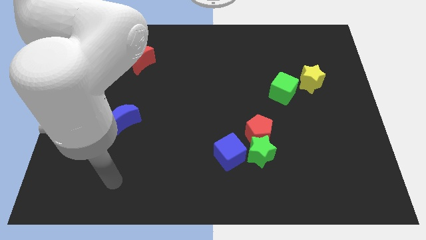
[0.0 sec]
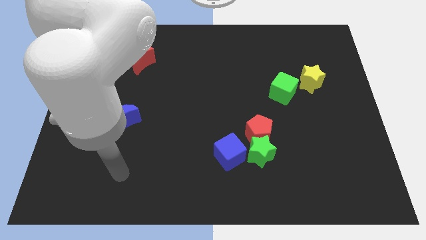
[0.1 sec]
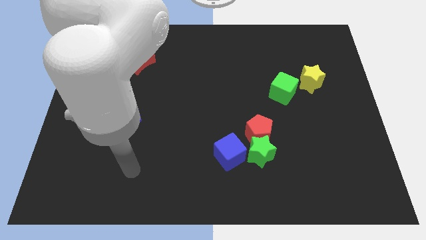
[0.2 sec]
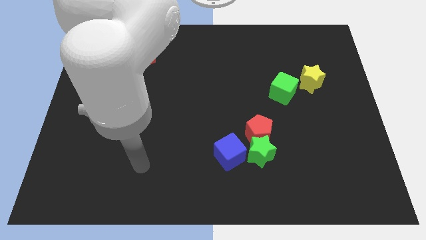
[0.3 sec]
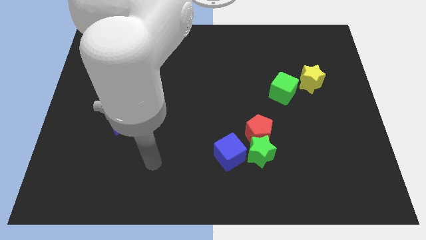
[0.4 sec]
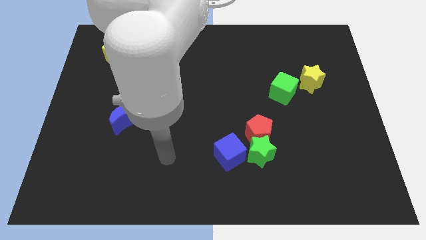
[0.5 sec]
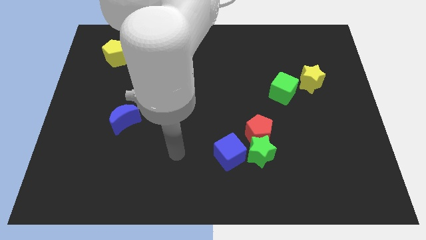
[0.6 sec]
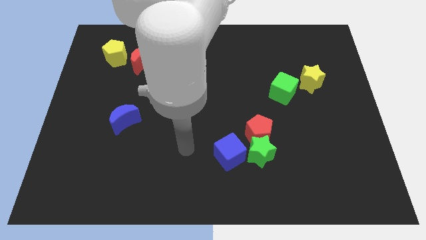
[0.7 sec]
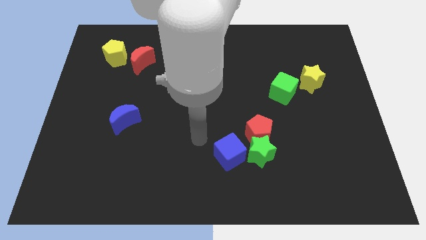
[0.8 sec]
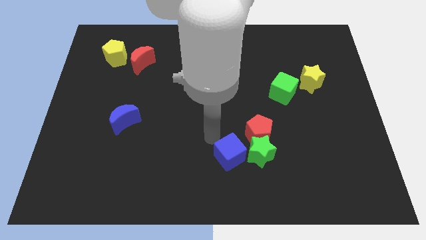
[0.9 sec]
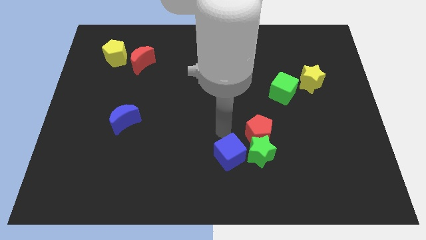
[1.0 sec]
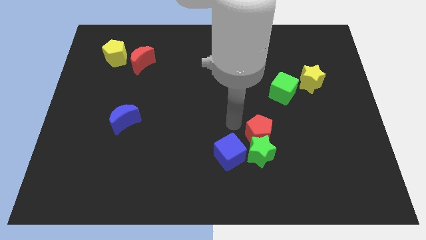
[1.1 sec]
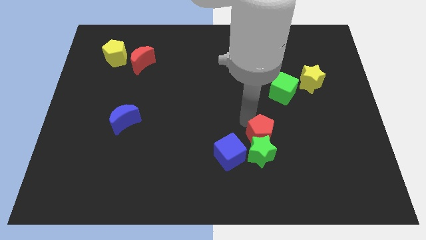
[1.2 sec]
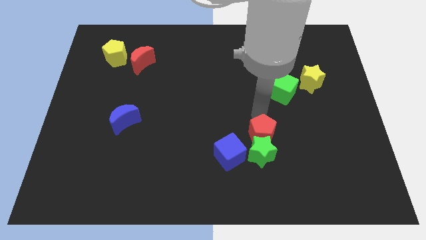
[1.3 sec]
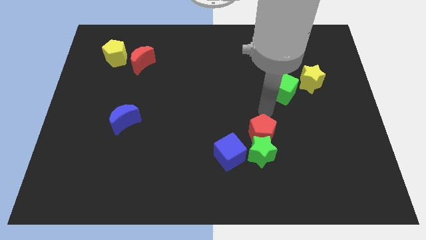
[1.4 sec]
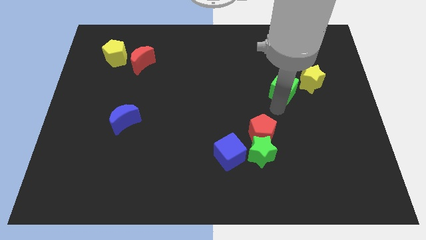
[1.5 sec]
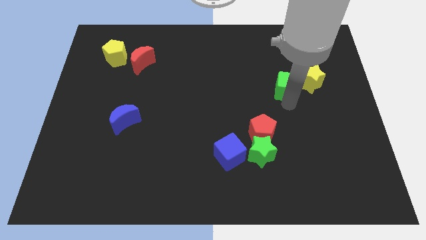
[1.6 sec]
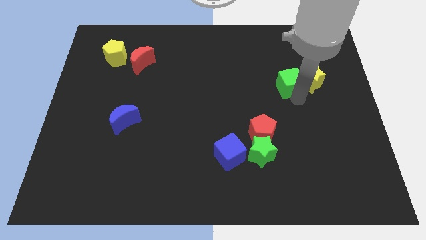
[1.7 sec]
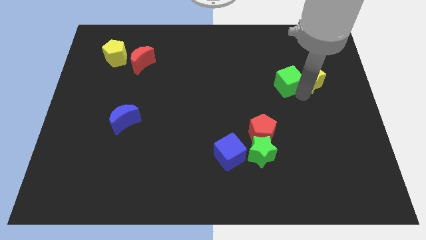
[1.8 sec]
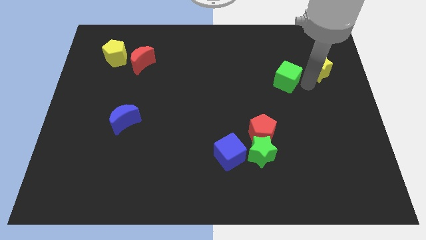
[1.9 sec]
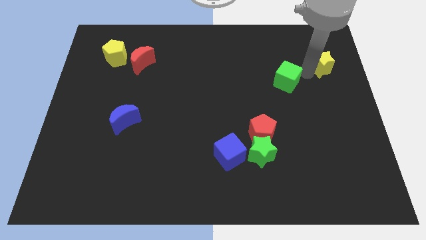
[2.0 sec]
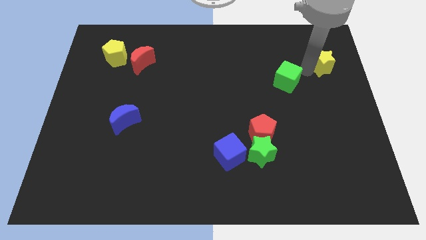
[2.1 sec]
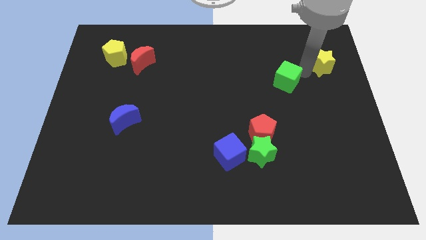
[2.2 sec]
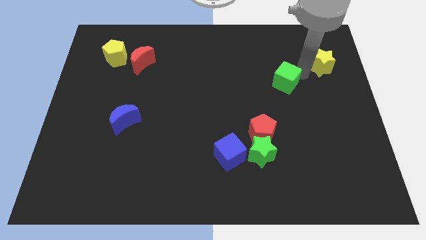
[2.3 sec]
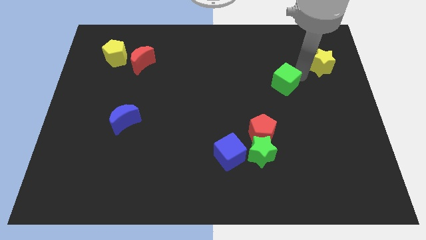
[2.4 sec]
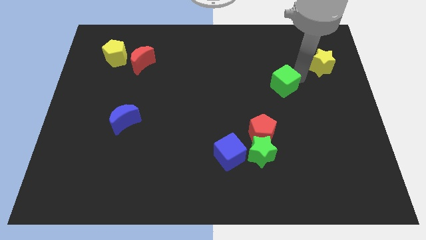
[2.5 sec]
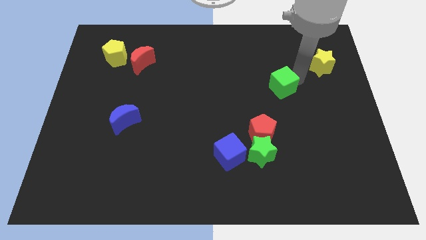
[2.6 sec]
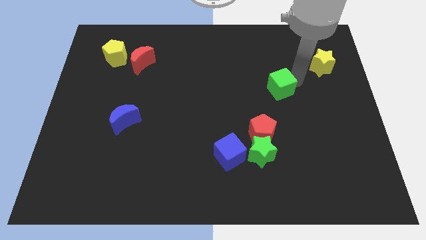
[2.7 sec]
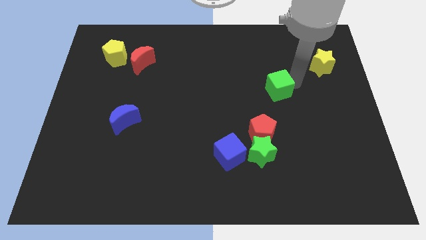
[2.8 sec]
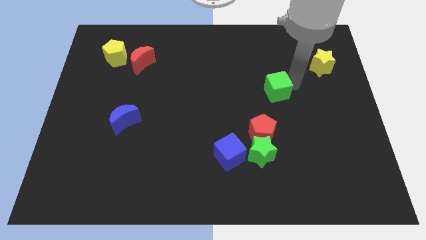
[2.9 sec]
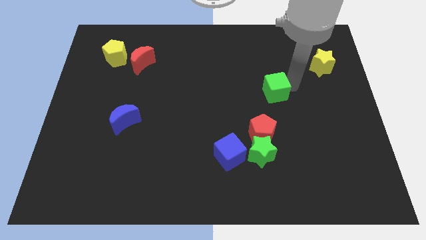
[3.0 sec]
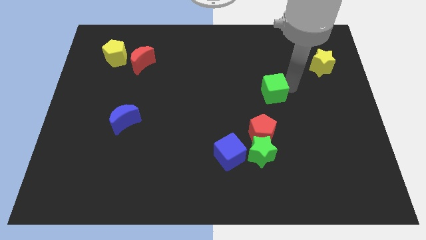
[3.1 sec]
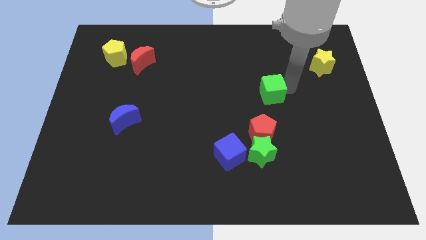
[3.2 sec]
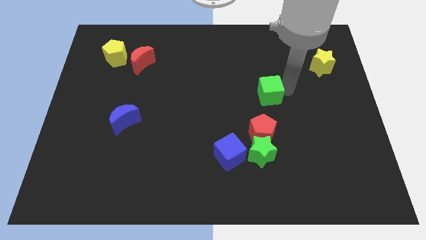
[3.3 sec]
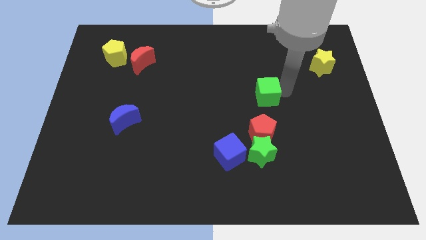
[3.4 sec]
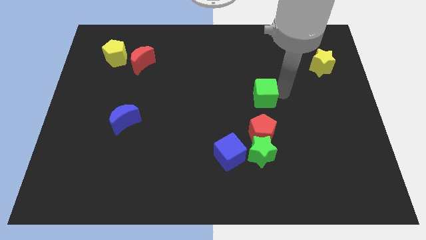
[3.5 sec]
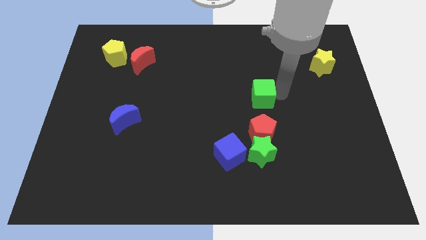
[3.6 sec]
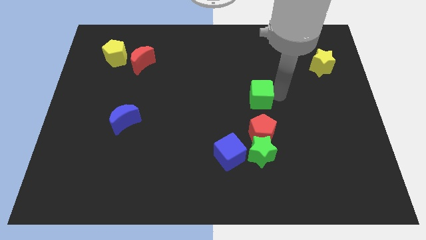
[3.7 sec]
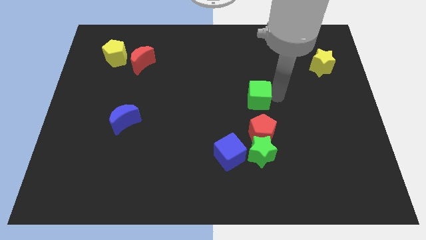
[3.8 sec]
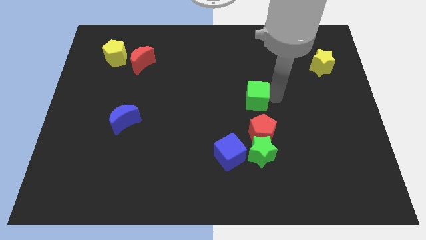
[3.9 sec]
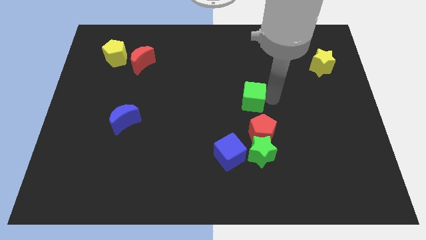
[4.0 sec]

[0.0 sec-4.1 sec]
slide the green cube left a little

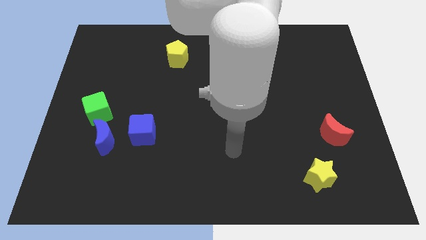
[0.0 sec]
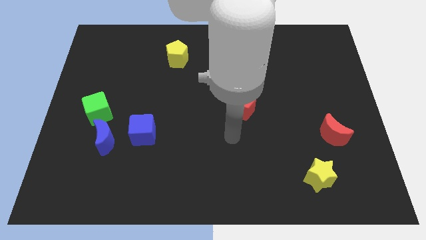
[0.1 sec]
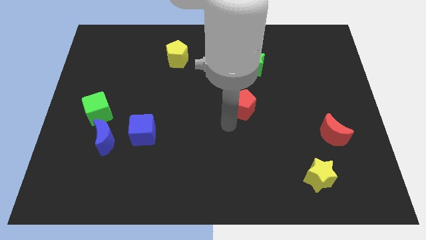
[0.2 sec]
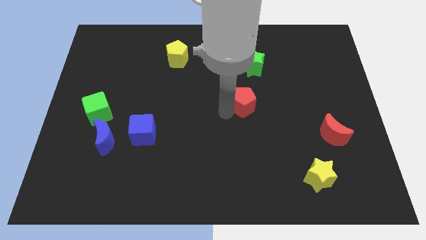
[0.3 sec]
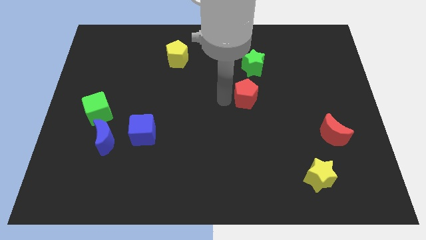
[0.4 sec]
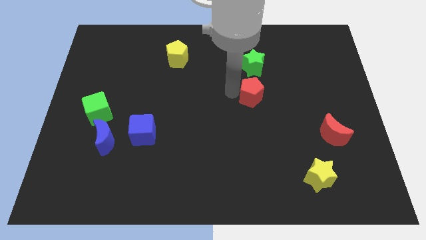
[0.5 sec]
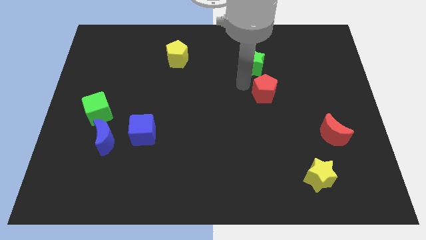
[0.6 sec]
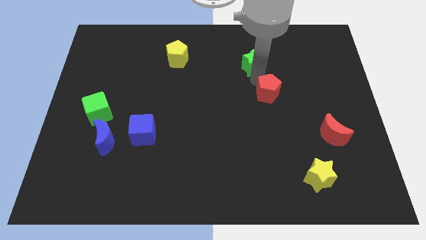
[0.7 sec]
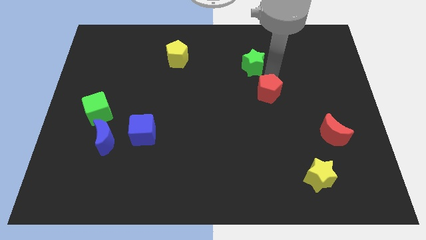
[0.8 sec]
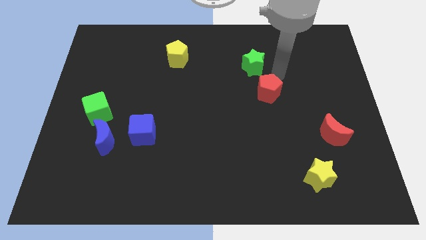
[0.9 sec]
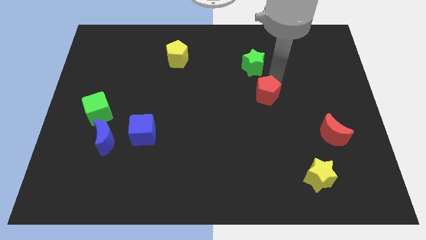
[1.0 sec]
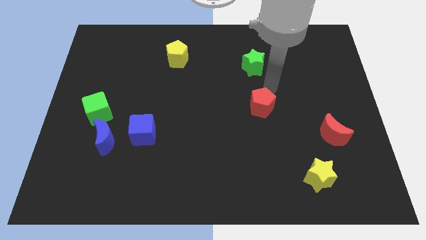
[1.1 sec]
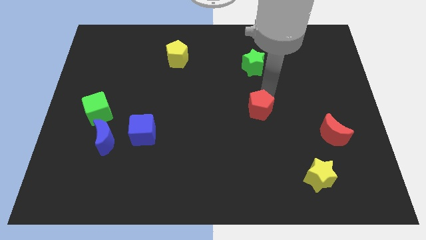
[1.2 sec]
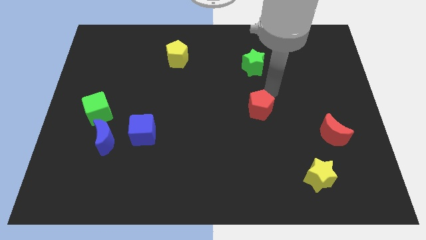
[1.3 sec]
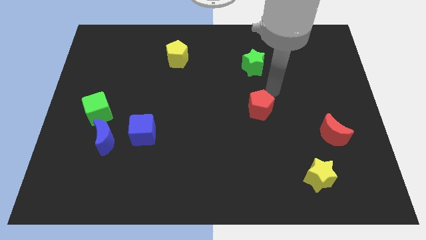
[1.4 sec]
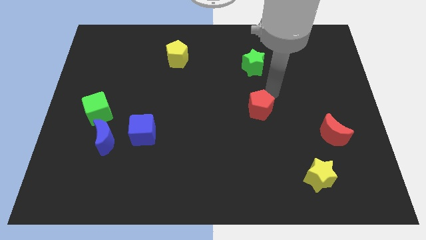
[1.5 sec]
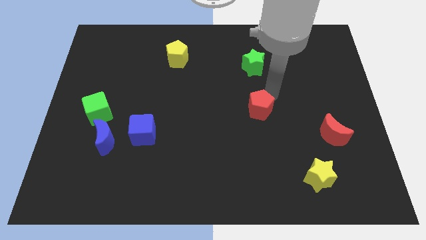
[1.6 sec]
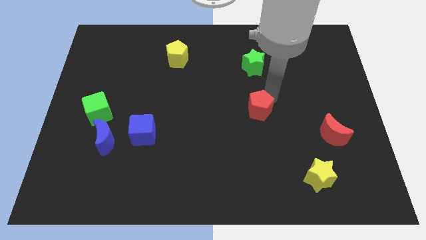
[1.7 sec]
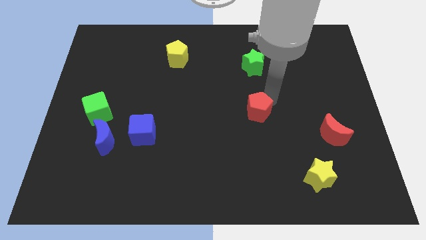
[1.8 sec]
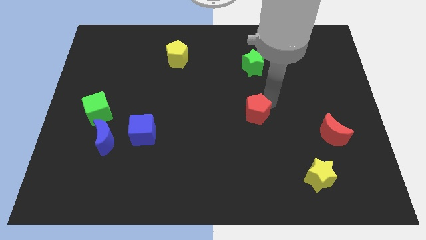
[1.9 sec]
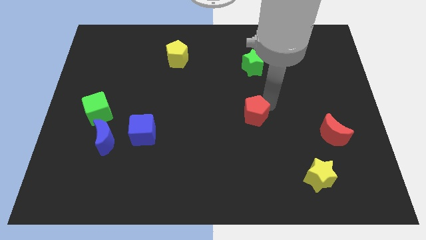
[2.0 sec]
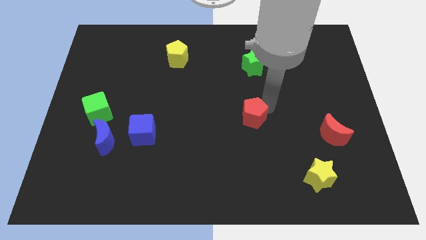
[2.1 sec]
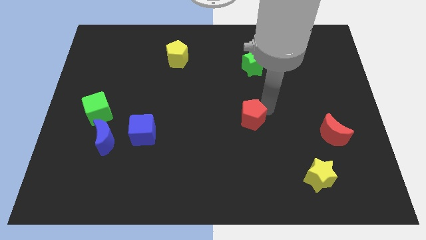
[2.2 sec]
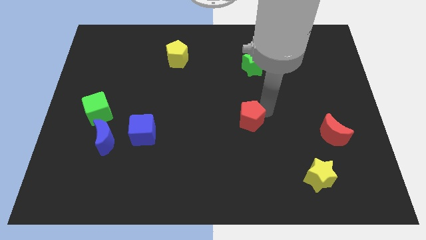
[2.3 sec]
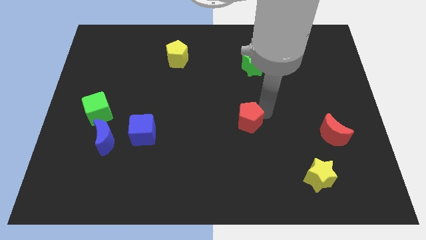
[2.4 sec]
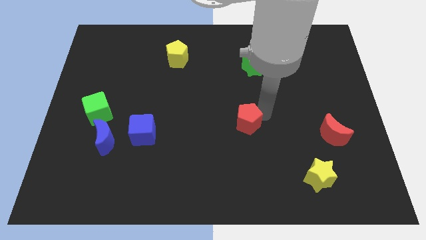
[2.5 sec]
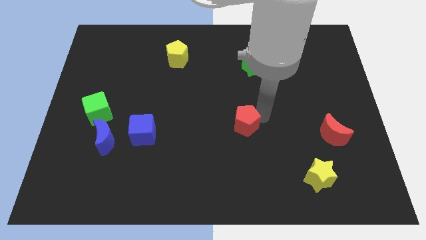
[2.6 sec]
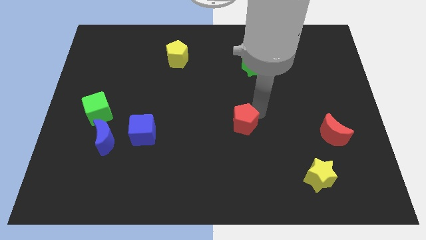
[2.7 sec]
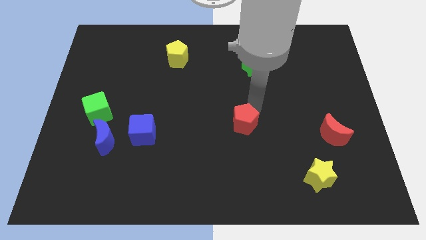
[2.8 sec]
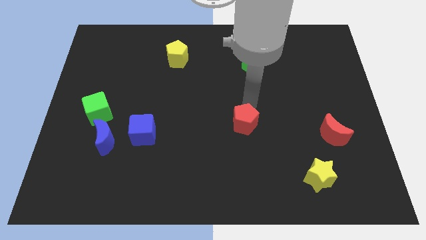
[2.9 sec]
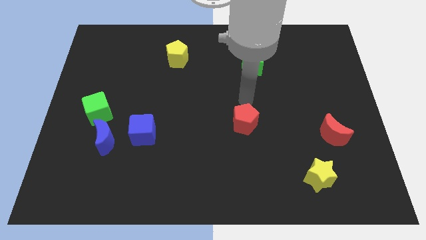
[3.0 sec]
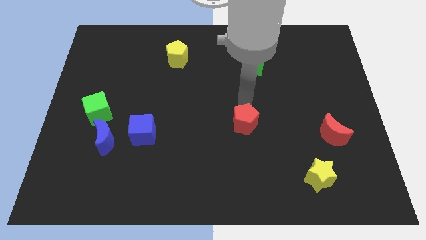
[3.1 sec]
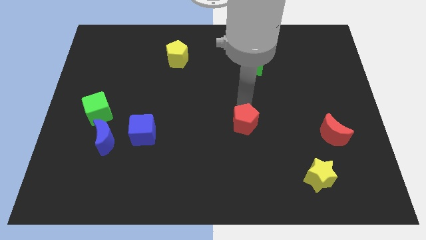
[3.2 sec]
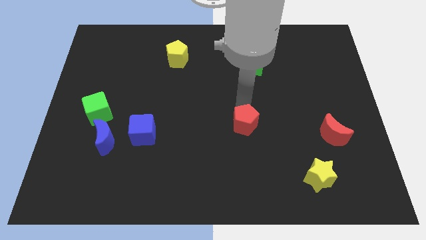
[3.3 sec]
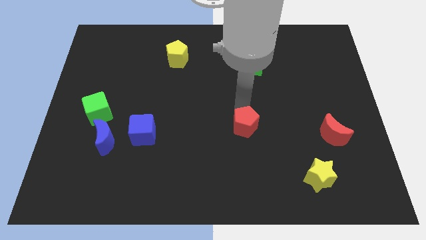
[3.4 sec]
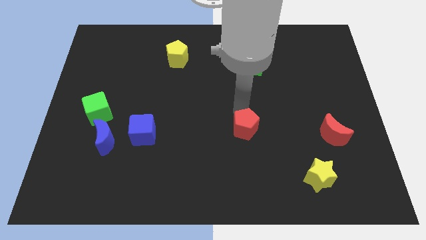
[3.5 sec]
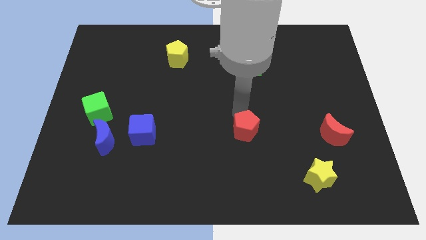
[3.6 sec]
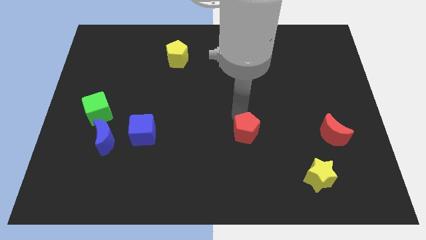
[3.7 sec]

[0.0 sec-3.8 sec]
slightly push the red pentagon downwards

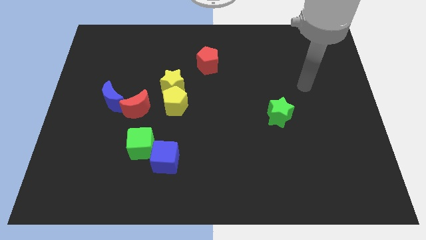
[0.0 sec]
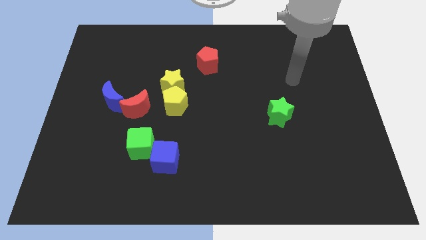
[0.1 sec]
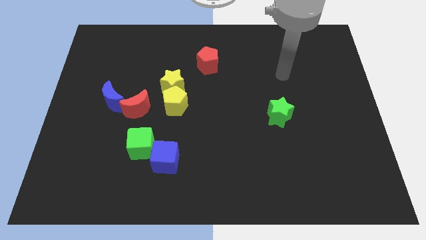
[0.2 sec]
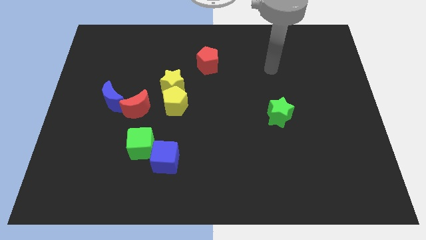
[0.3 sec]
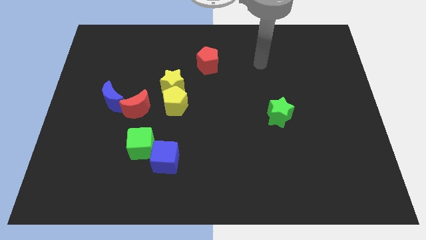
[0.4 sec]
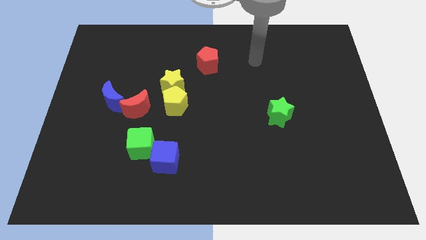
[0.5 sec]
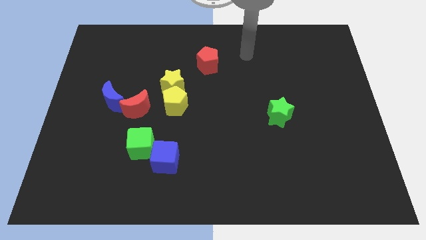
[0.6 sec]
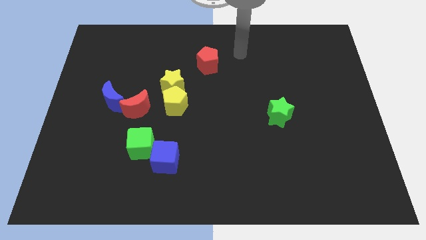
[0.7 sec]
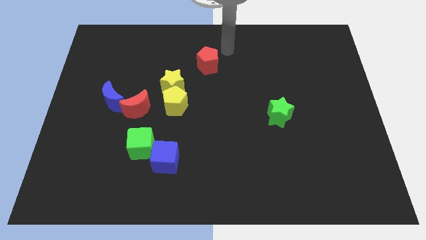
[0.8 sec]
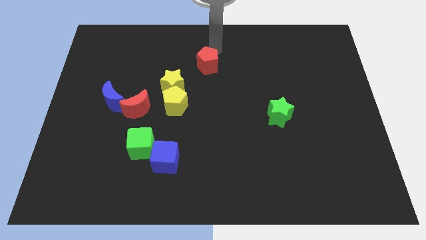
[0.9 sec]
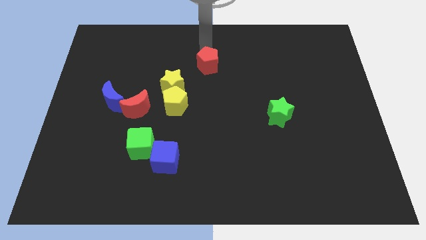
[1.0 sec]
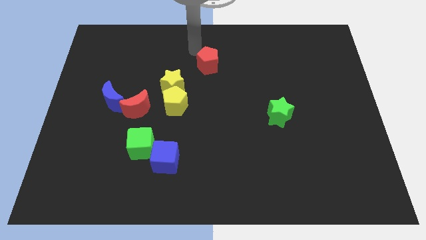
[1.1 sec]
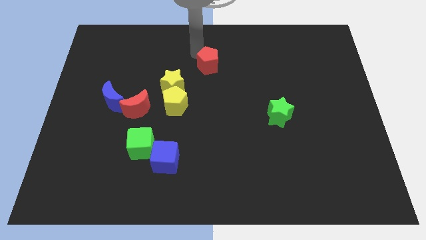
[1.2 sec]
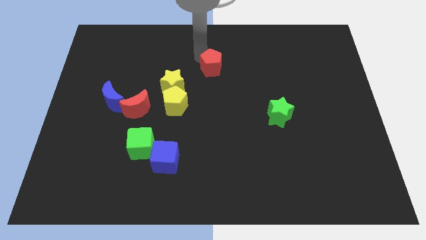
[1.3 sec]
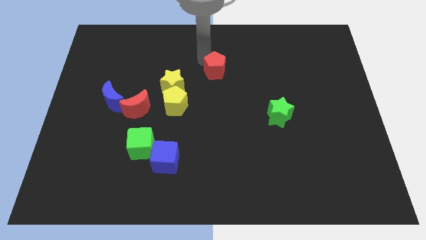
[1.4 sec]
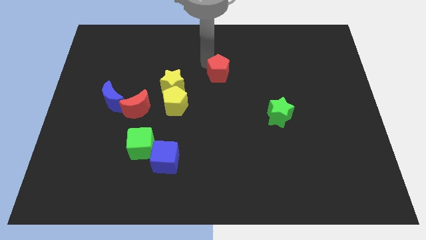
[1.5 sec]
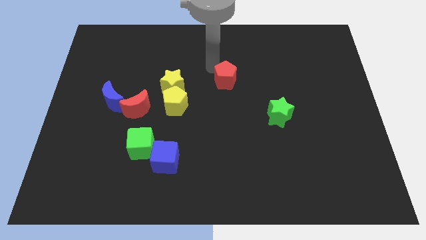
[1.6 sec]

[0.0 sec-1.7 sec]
push the red pentagon a little bit diagonally downwards and to the right
